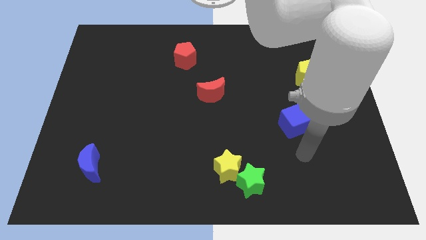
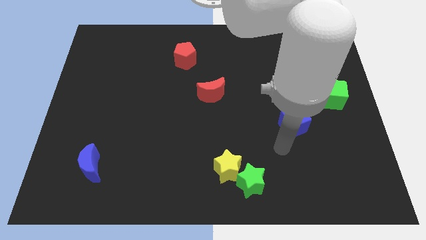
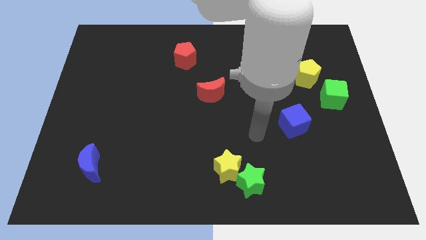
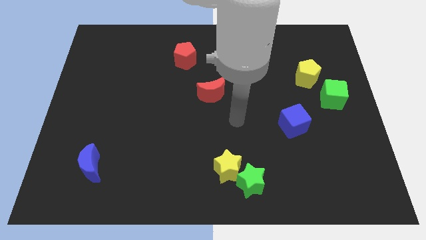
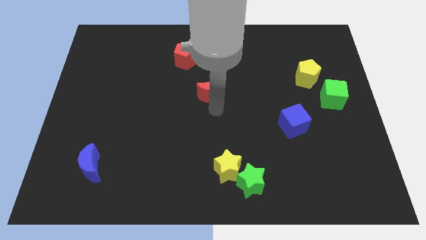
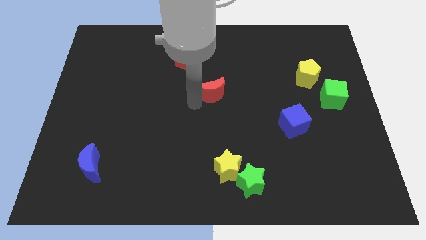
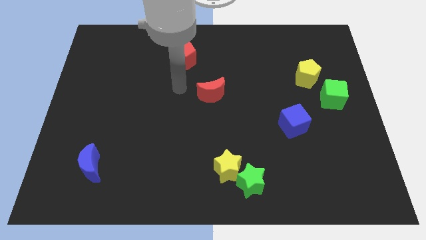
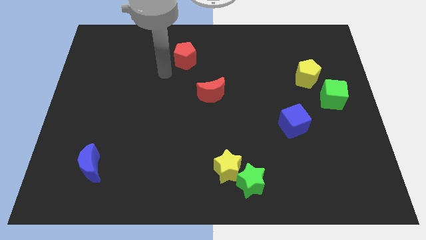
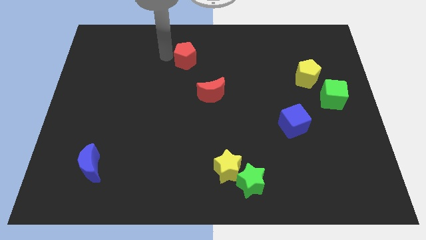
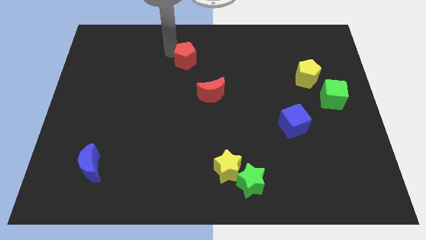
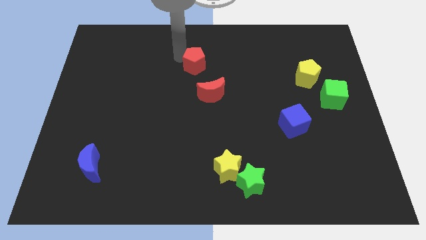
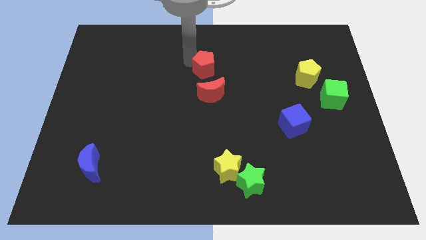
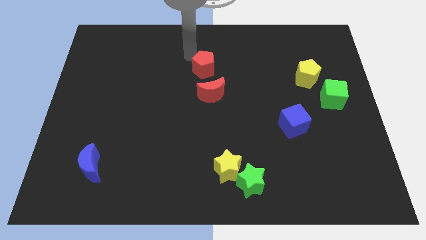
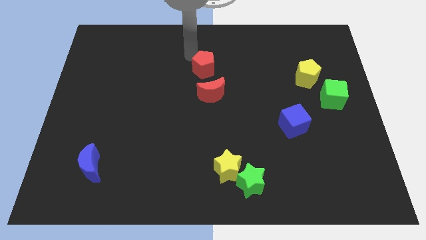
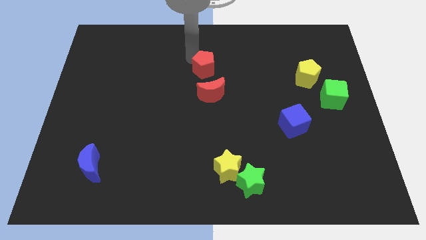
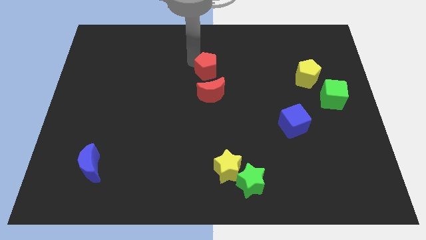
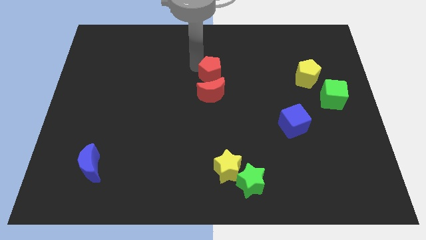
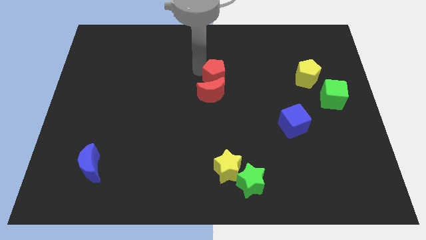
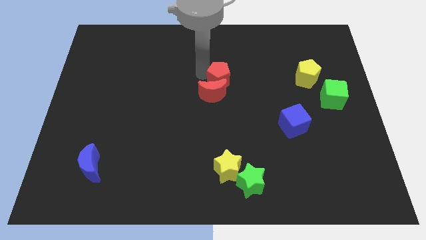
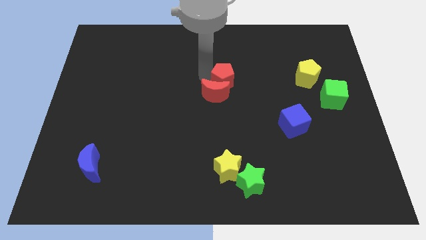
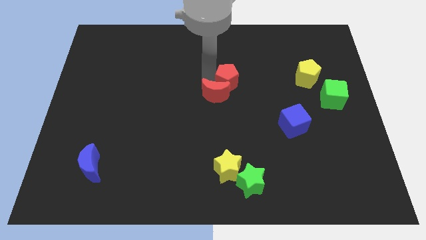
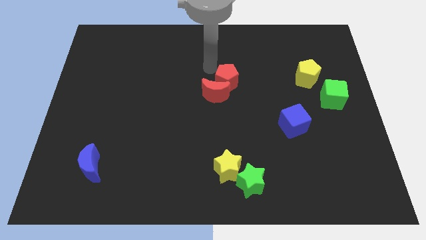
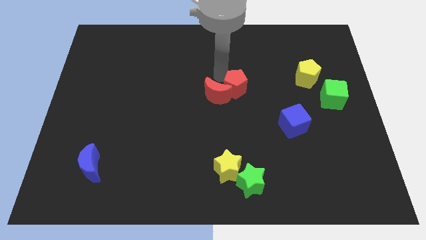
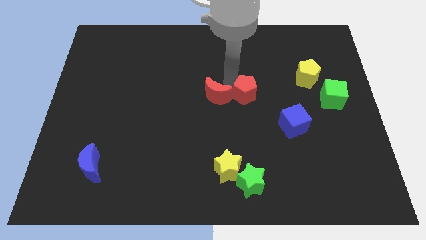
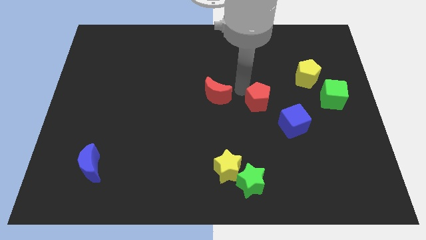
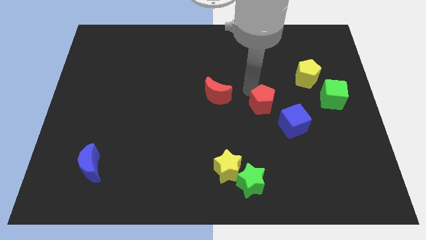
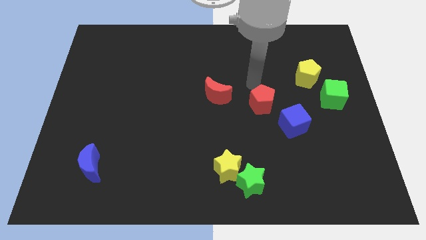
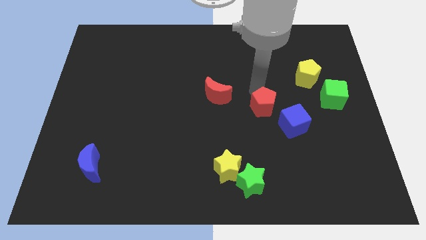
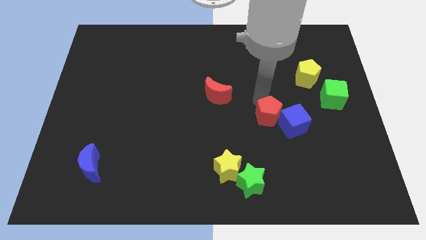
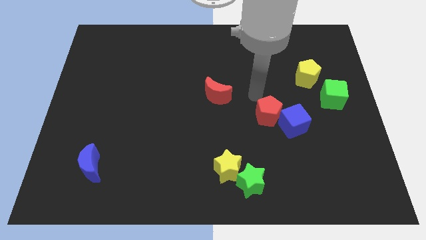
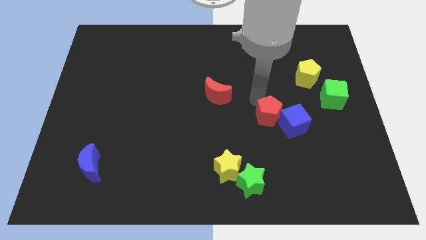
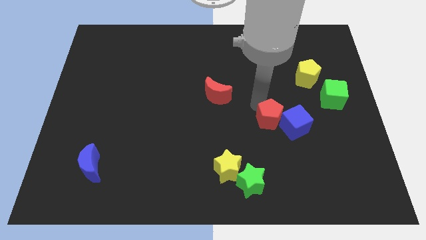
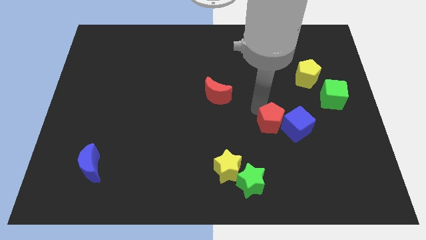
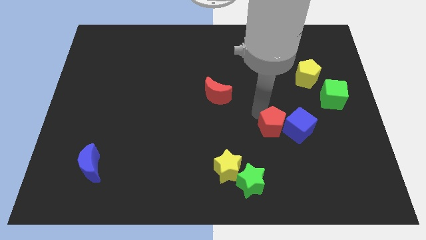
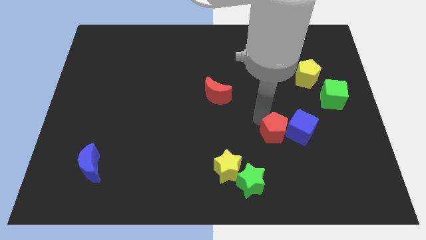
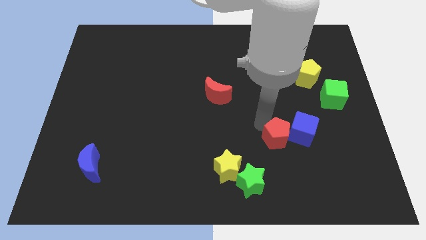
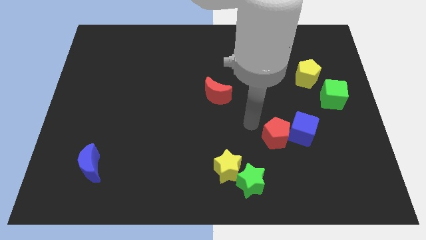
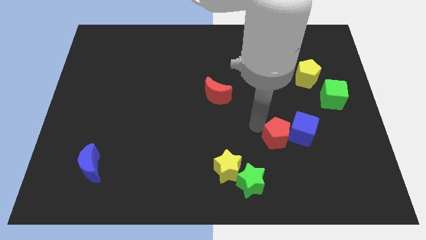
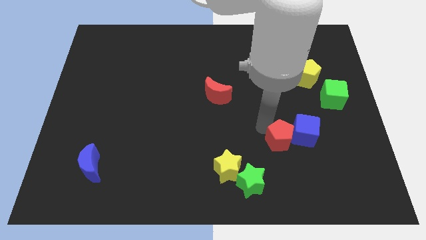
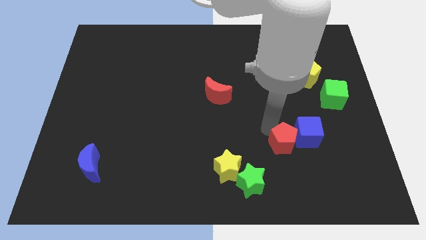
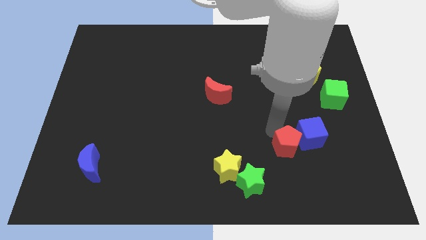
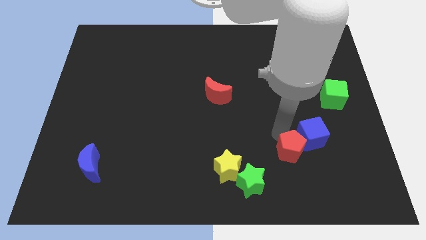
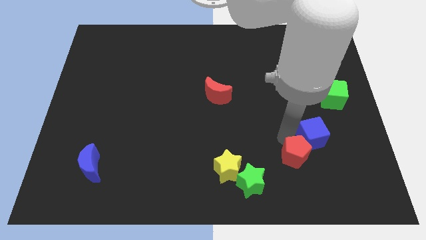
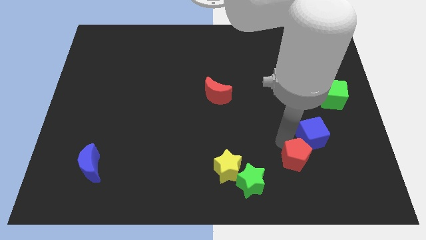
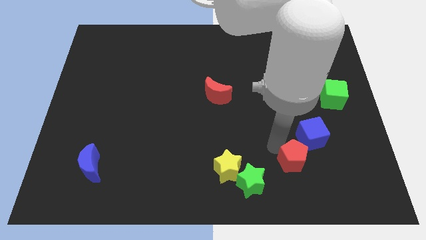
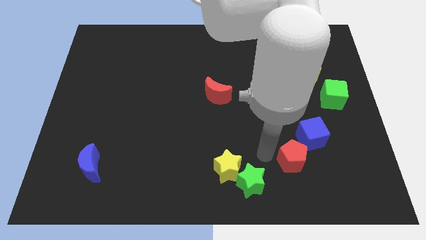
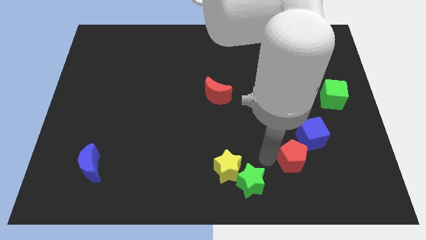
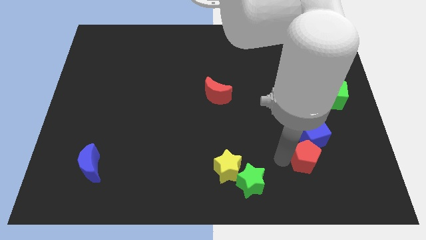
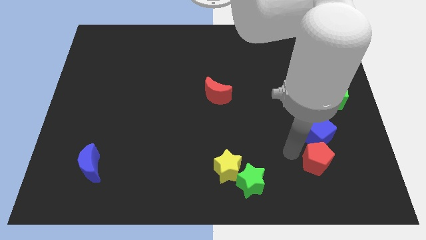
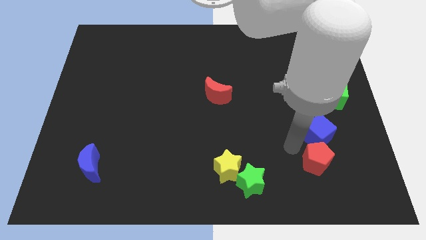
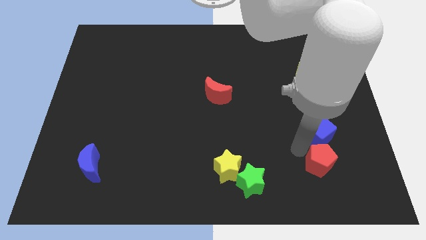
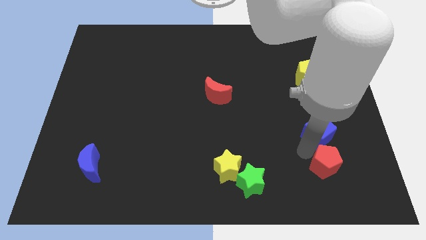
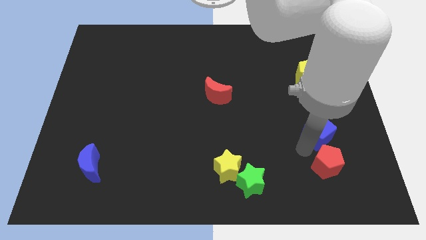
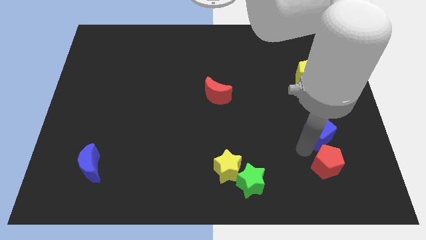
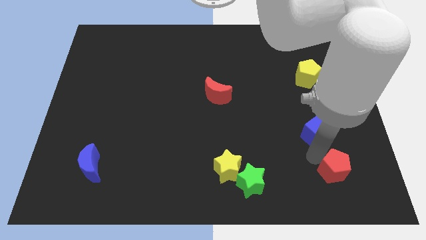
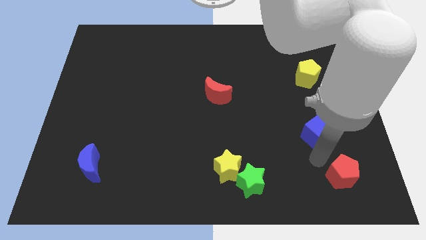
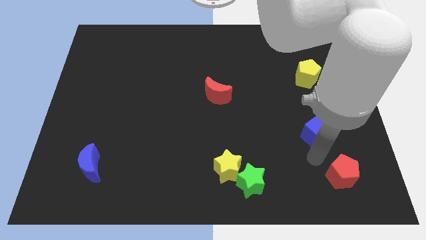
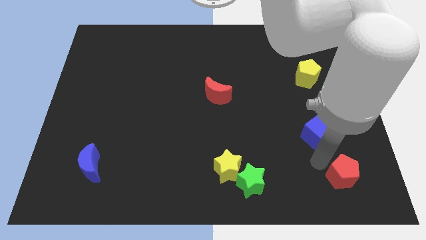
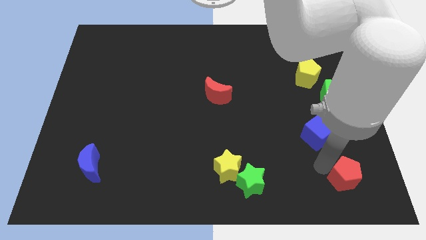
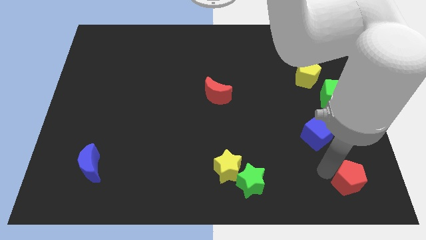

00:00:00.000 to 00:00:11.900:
push the red pentagon to the bottom right

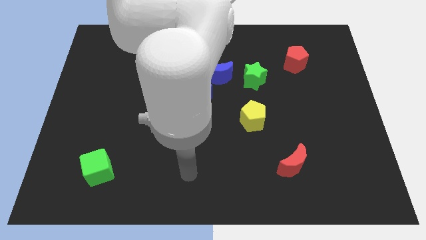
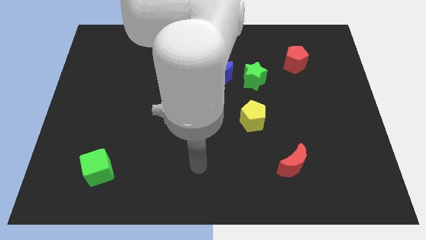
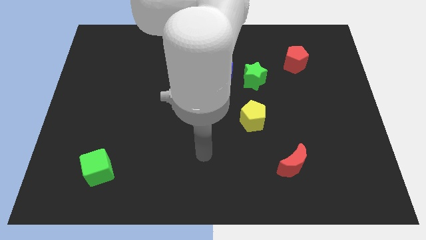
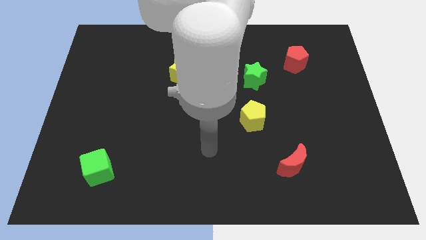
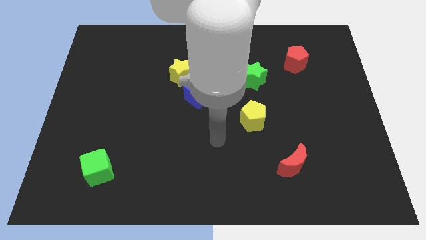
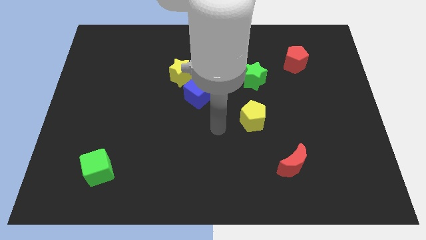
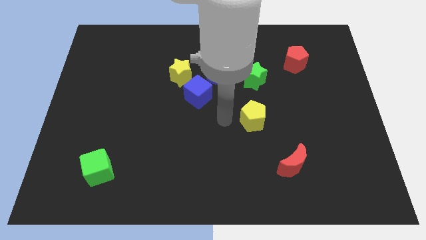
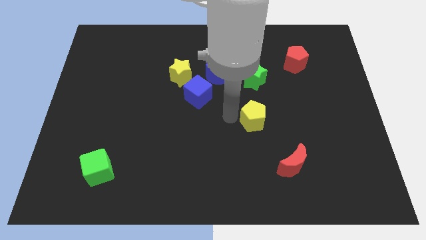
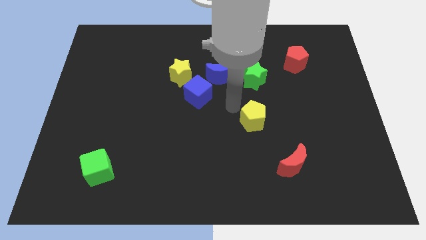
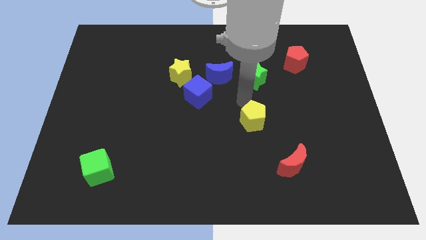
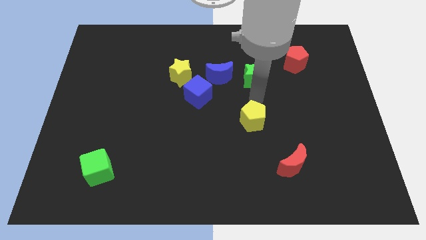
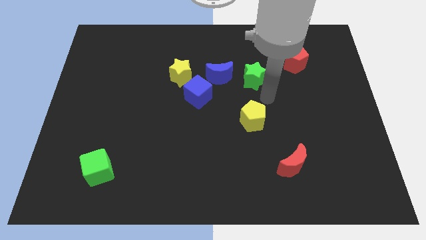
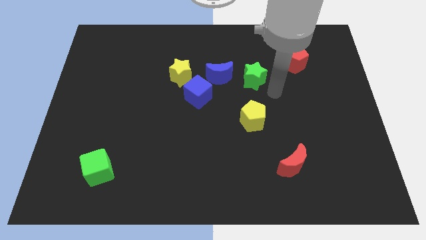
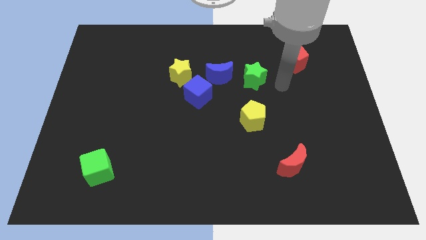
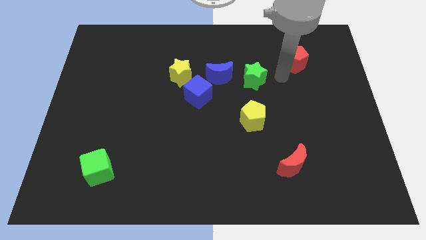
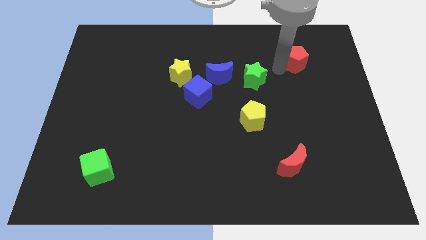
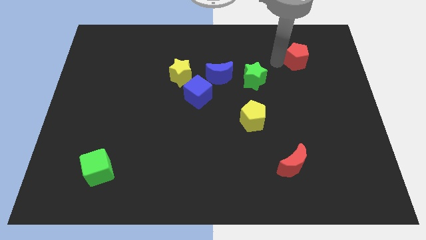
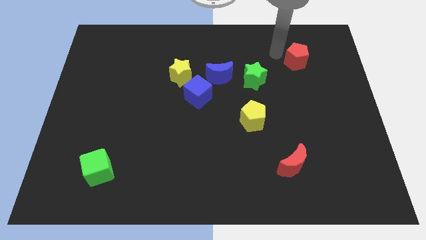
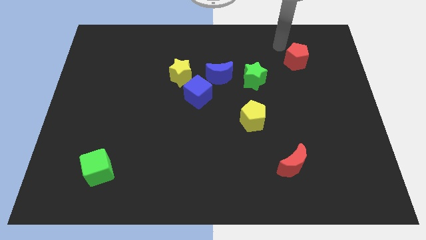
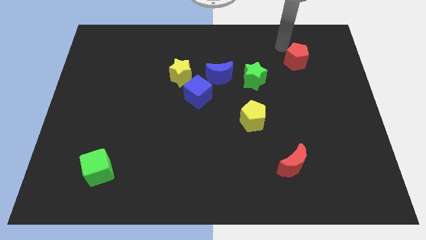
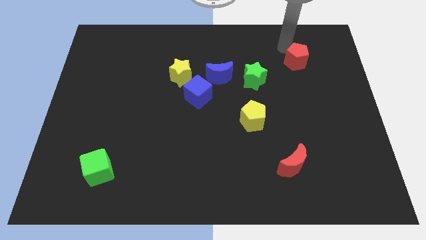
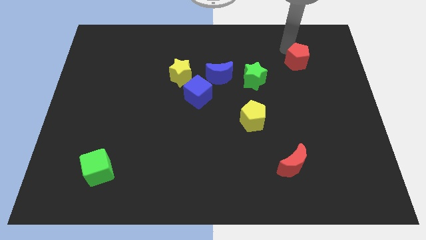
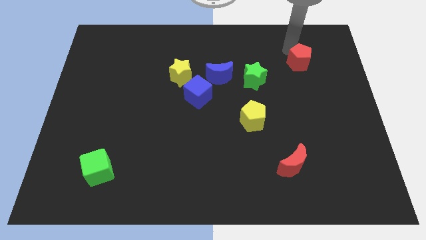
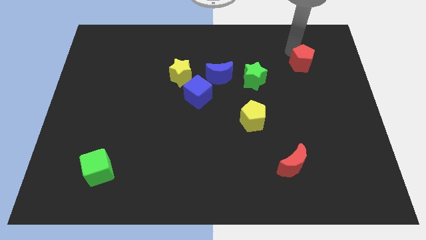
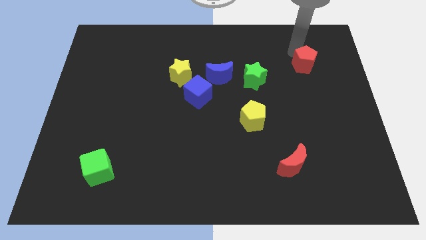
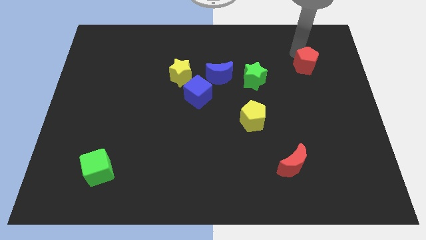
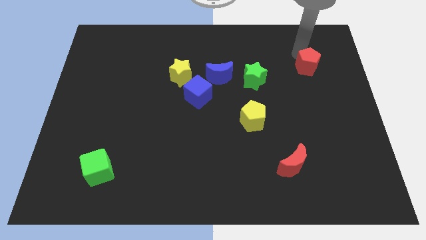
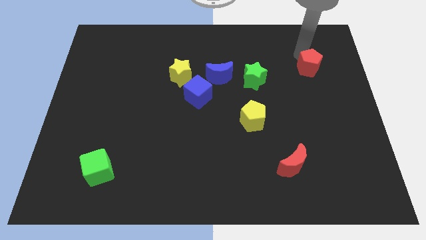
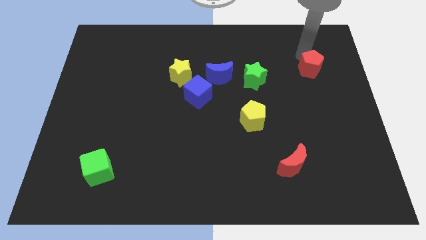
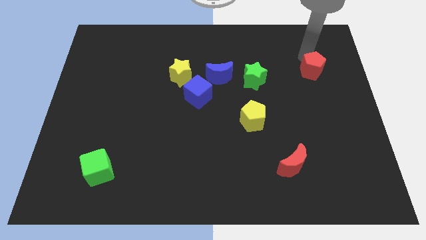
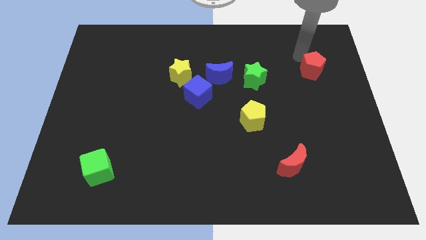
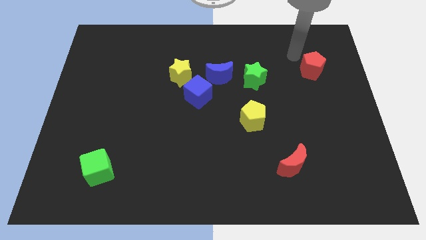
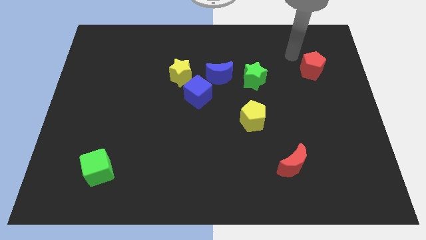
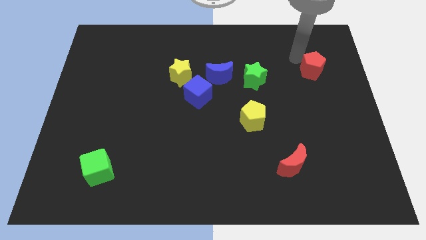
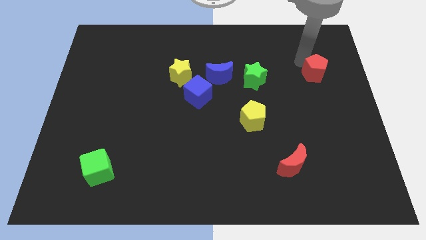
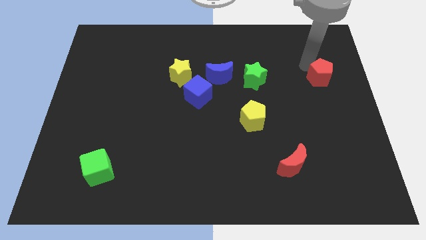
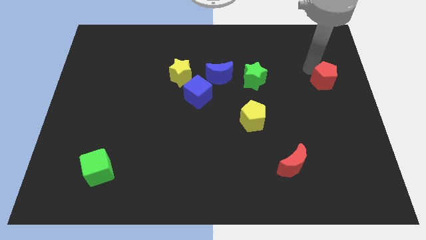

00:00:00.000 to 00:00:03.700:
slide the red pentagon to the center right
